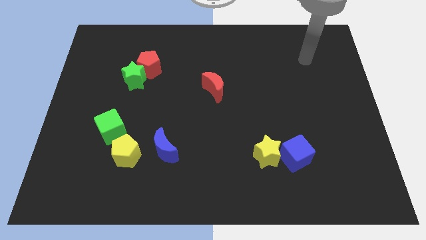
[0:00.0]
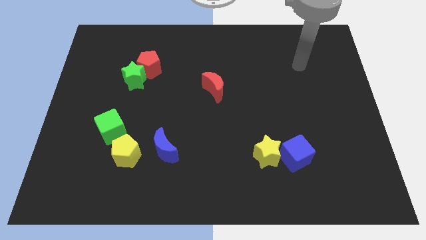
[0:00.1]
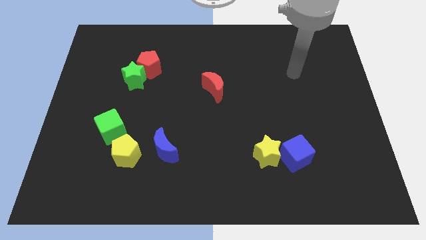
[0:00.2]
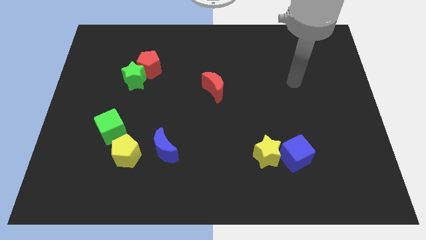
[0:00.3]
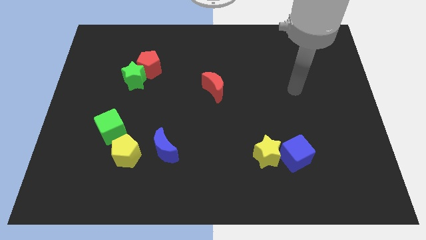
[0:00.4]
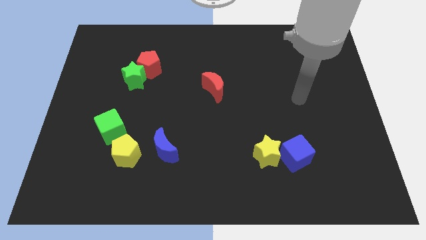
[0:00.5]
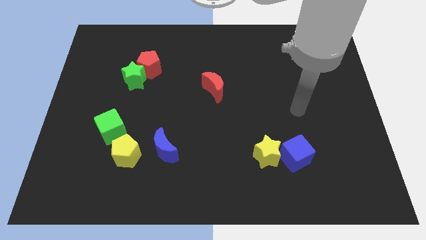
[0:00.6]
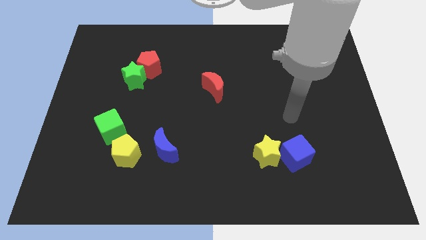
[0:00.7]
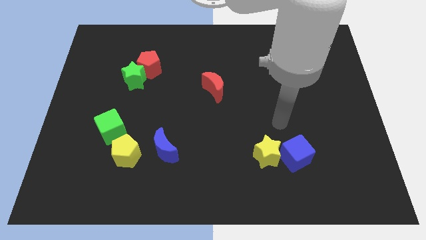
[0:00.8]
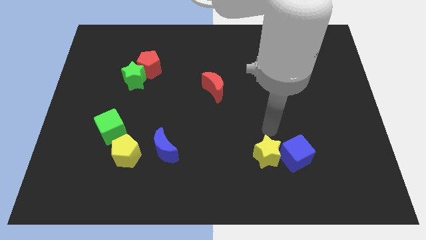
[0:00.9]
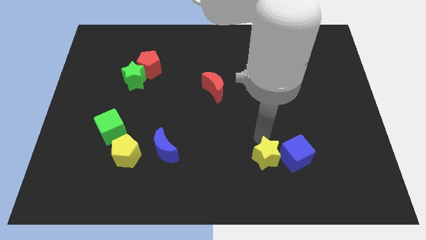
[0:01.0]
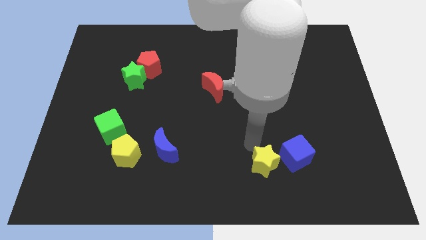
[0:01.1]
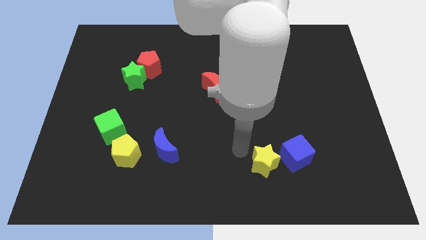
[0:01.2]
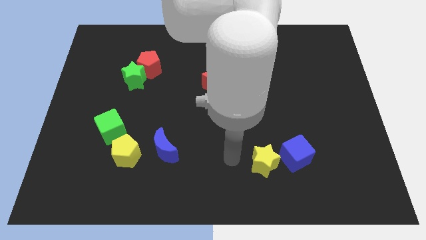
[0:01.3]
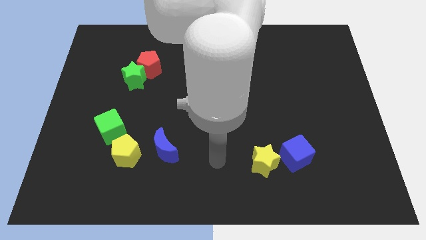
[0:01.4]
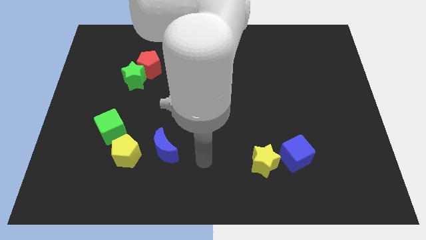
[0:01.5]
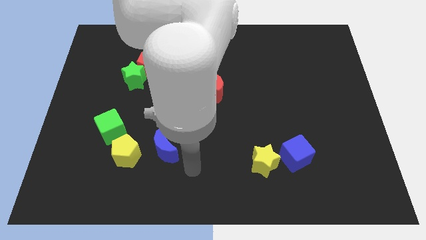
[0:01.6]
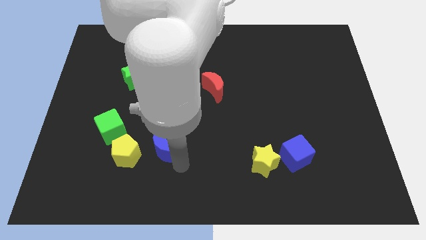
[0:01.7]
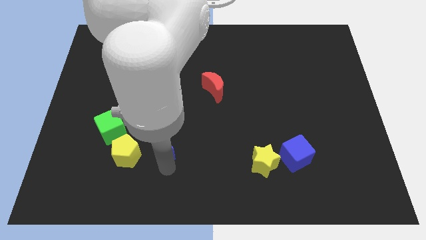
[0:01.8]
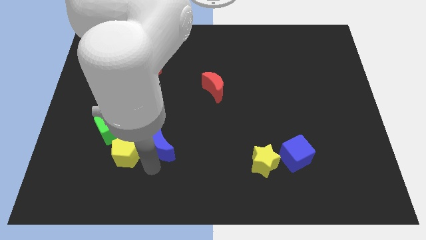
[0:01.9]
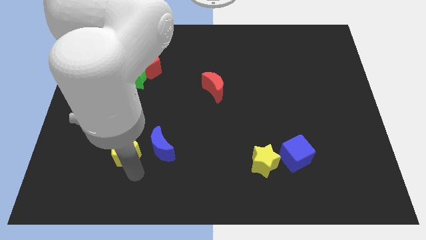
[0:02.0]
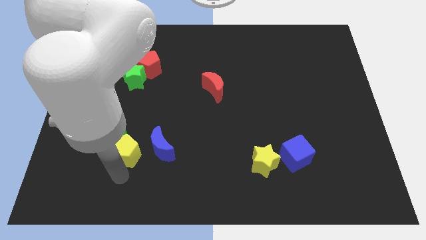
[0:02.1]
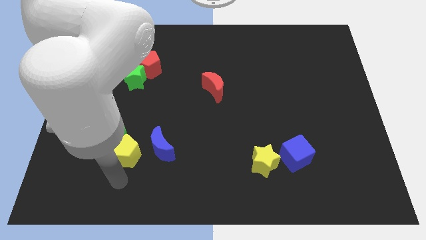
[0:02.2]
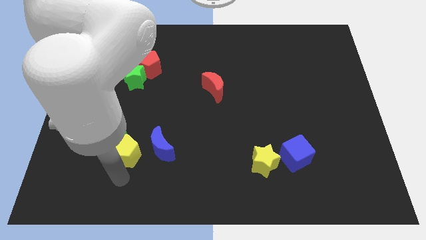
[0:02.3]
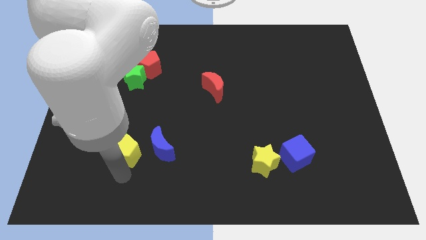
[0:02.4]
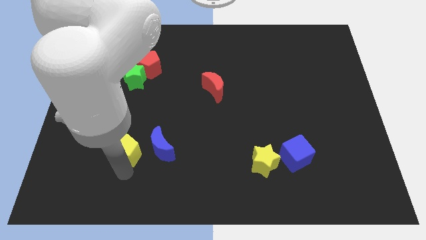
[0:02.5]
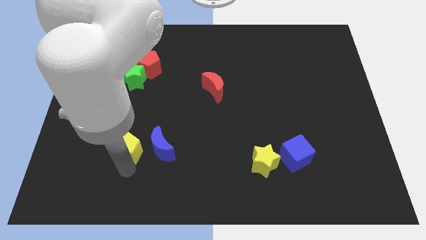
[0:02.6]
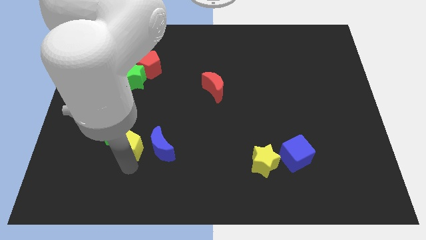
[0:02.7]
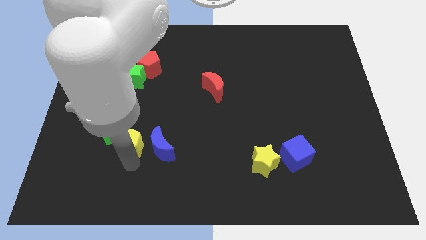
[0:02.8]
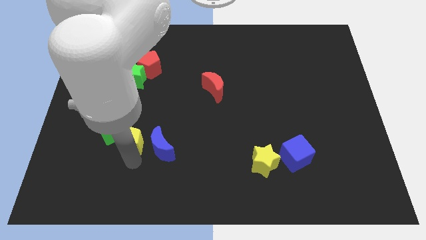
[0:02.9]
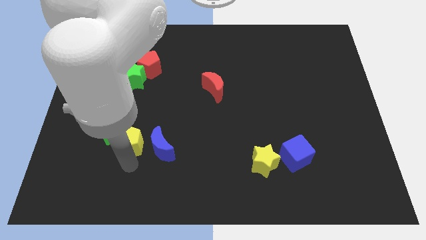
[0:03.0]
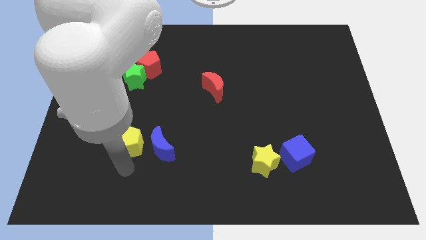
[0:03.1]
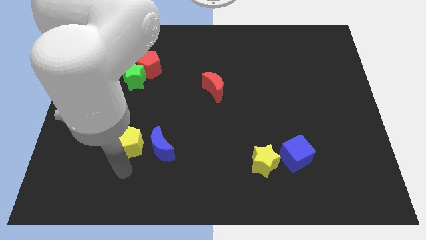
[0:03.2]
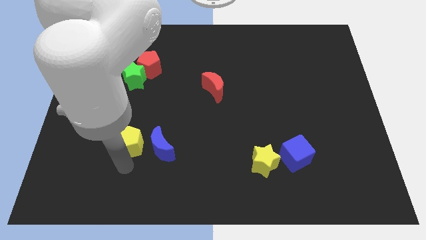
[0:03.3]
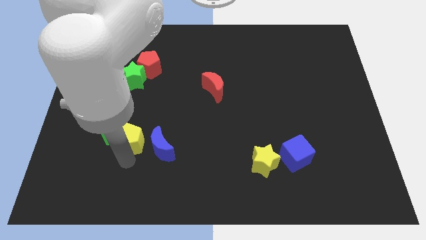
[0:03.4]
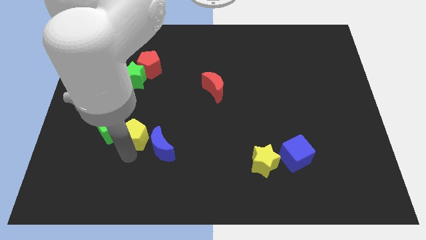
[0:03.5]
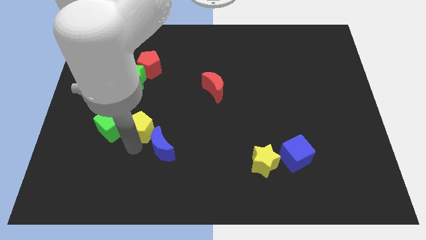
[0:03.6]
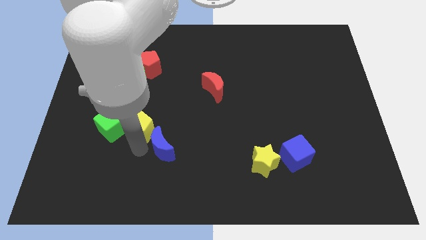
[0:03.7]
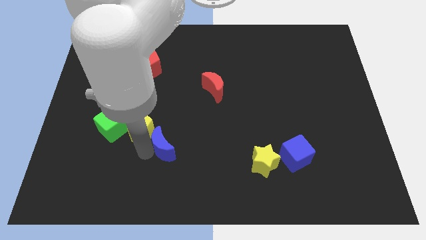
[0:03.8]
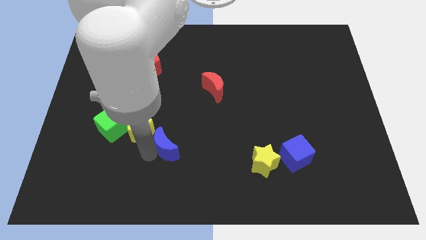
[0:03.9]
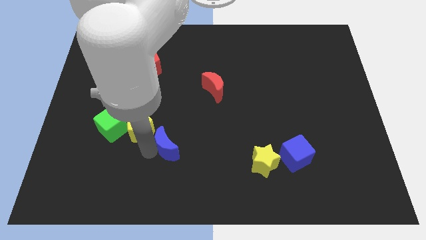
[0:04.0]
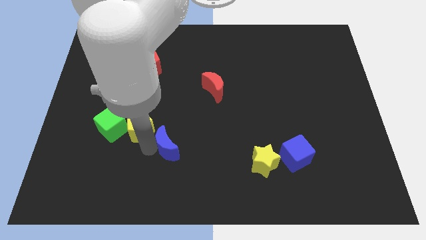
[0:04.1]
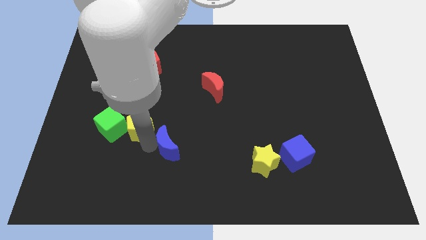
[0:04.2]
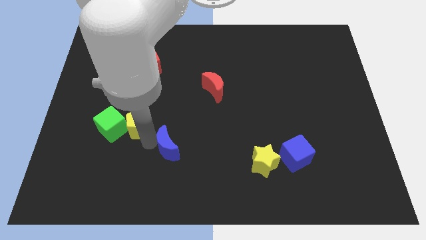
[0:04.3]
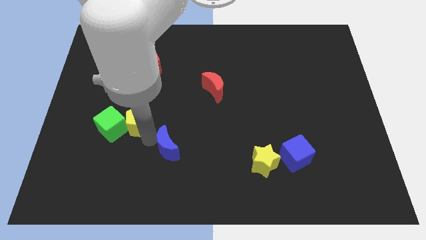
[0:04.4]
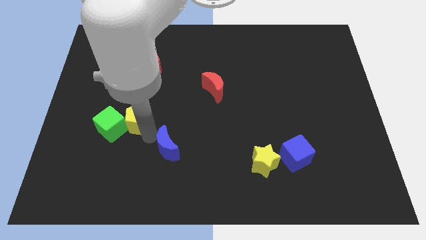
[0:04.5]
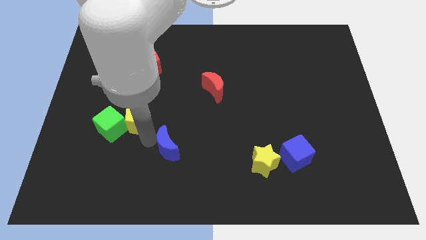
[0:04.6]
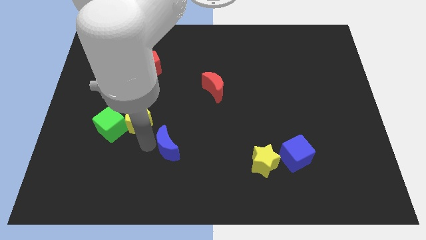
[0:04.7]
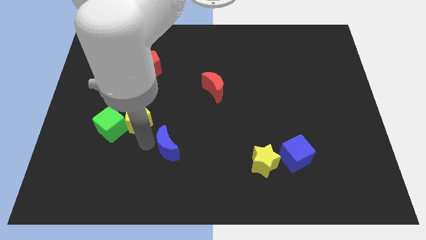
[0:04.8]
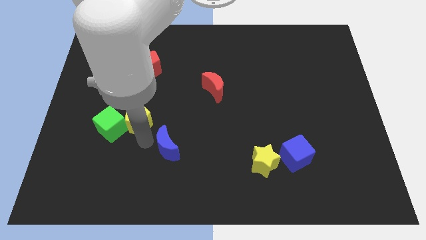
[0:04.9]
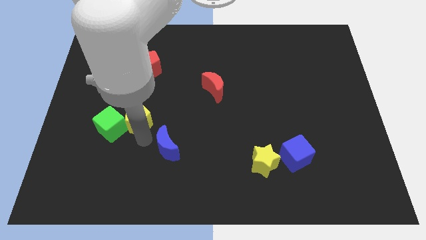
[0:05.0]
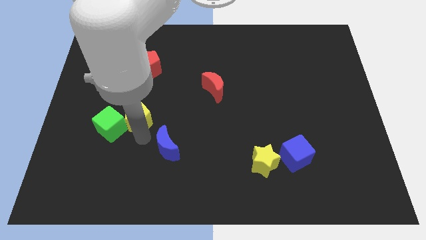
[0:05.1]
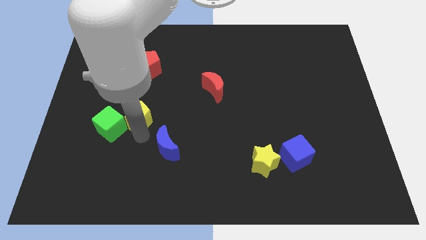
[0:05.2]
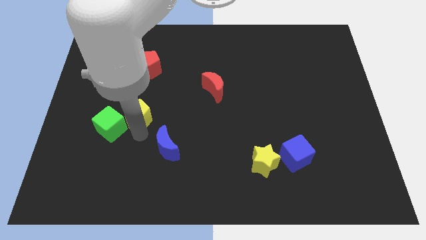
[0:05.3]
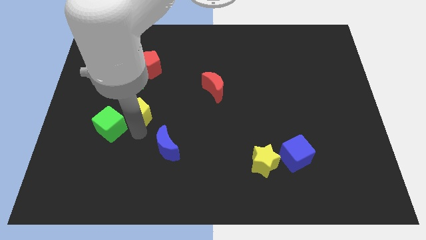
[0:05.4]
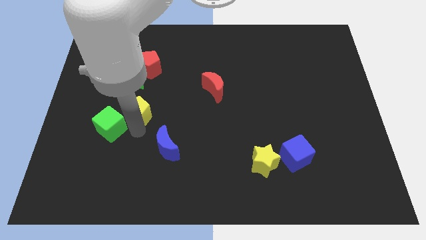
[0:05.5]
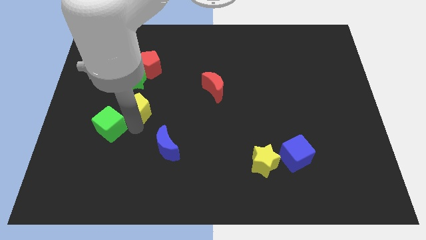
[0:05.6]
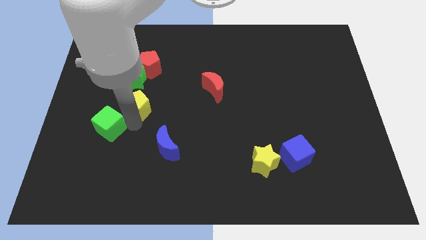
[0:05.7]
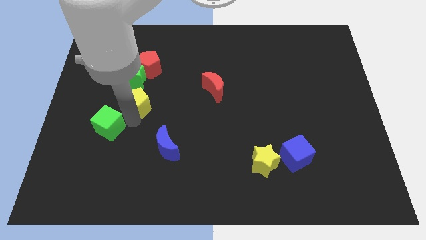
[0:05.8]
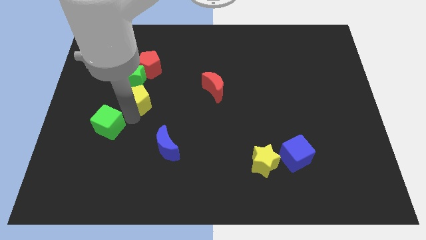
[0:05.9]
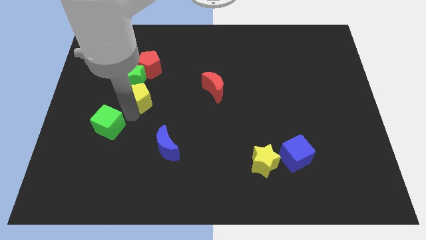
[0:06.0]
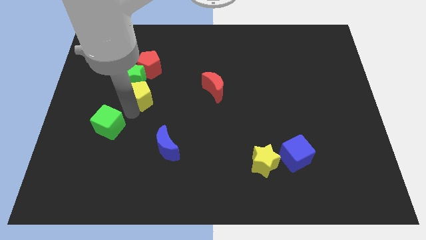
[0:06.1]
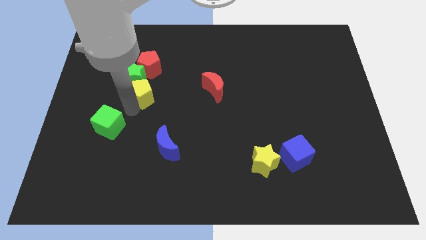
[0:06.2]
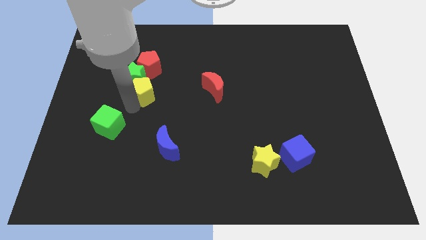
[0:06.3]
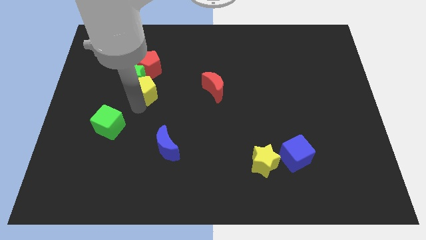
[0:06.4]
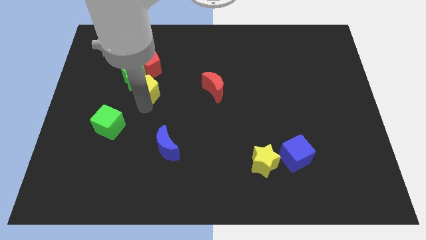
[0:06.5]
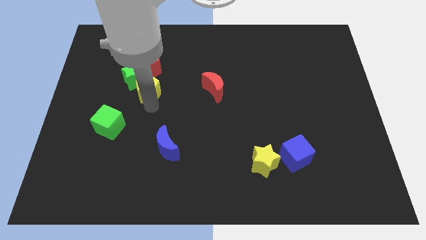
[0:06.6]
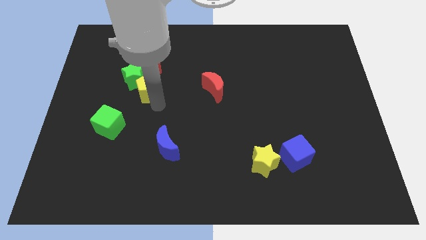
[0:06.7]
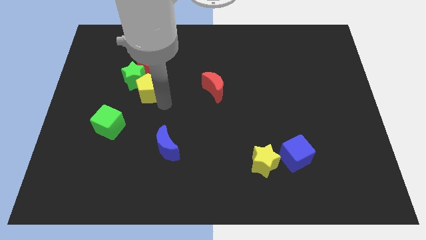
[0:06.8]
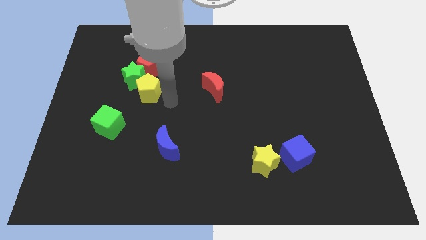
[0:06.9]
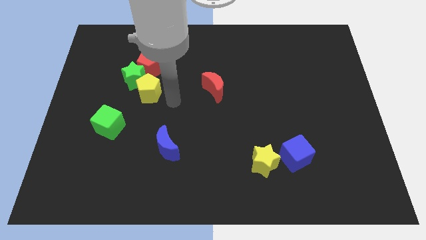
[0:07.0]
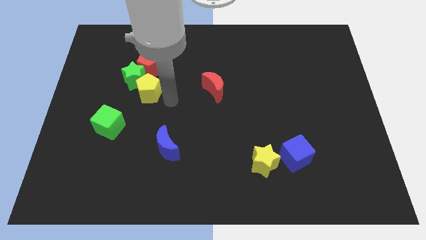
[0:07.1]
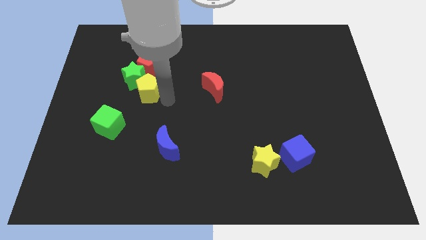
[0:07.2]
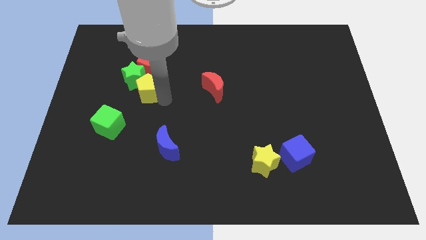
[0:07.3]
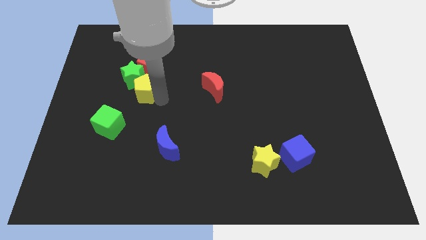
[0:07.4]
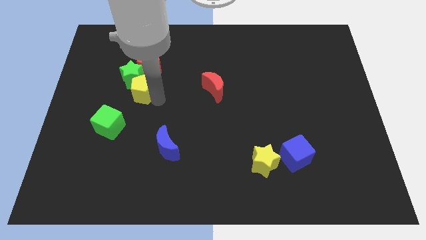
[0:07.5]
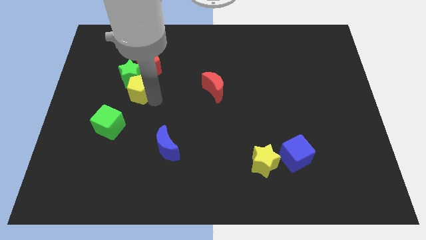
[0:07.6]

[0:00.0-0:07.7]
push the yellow pentagon to the bottom left of the red pentagon
